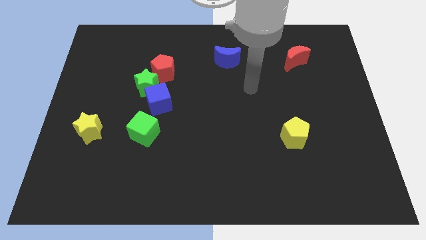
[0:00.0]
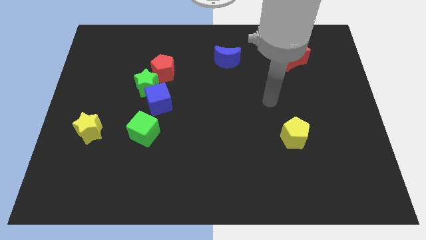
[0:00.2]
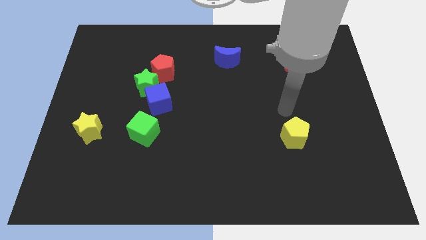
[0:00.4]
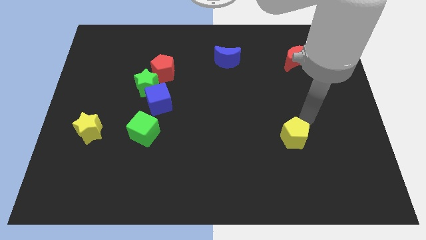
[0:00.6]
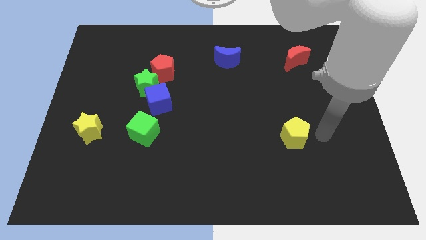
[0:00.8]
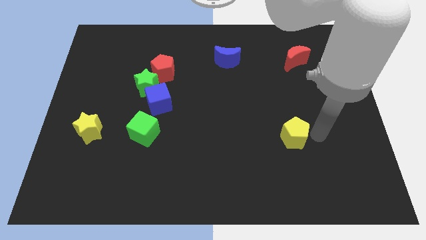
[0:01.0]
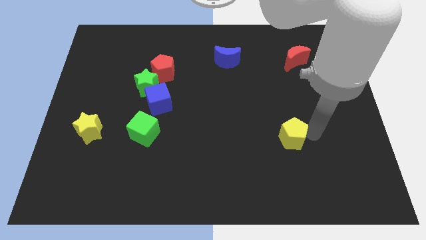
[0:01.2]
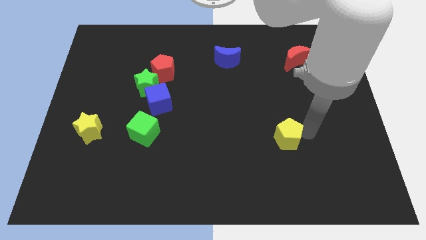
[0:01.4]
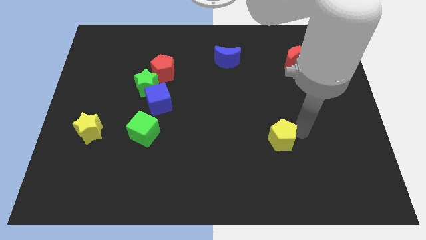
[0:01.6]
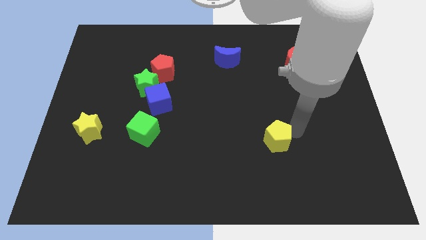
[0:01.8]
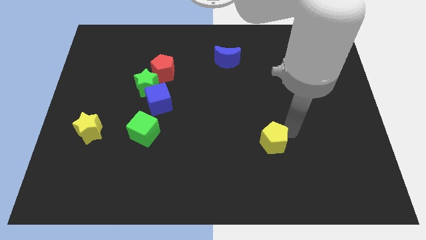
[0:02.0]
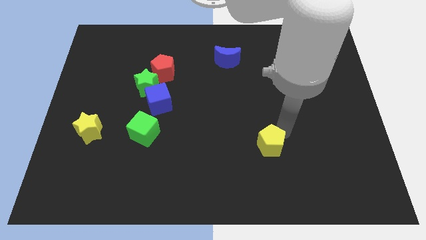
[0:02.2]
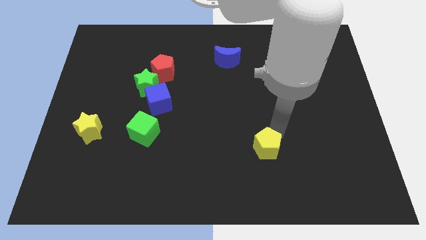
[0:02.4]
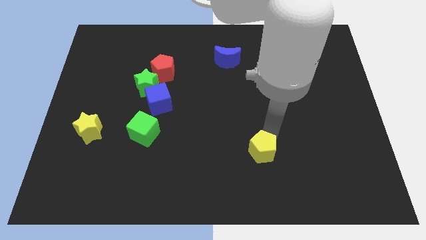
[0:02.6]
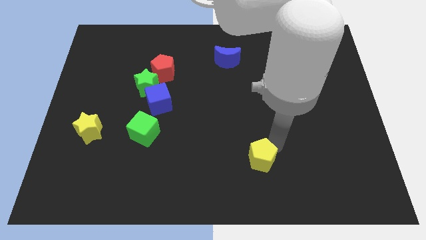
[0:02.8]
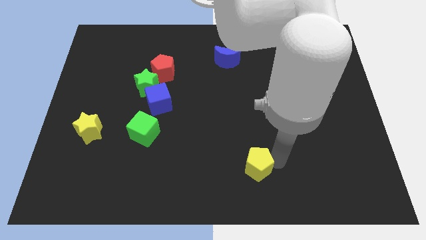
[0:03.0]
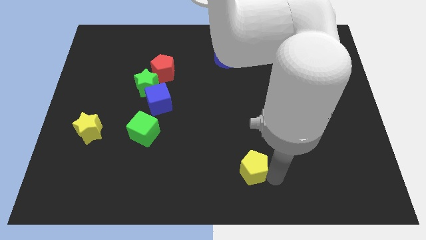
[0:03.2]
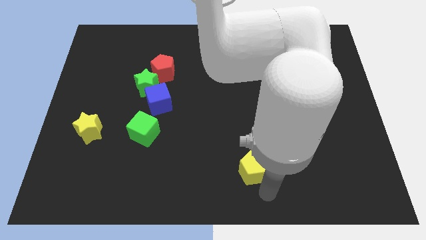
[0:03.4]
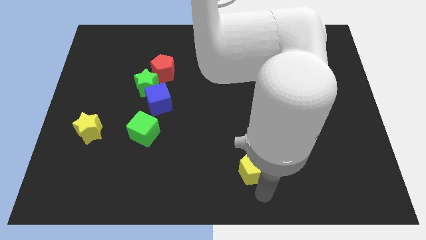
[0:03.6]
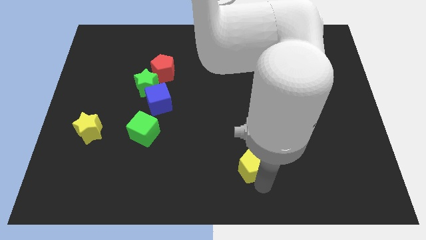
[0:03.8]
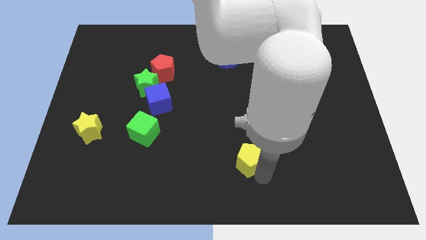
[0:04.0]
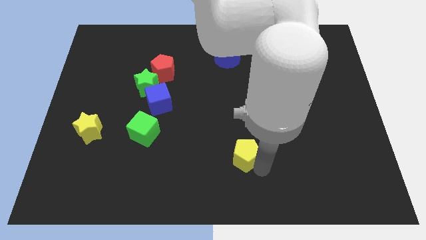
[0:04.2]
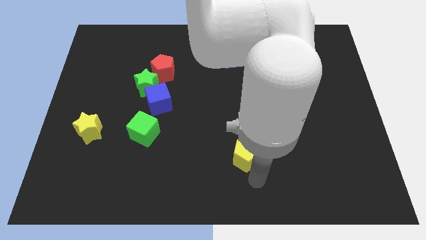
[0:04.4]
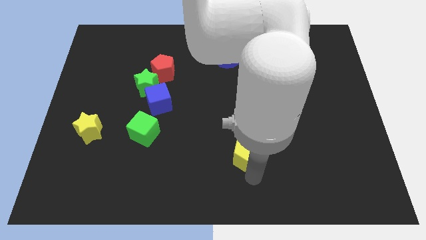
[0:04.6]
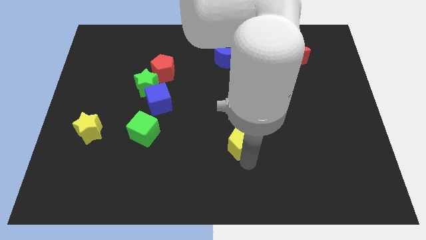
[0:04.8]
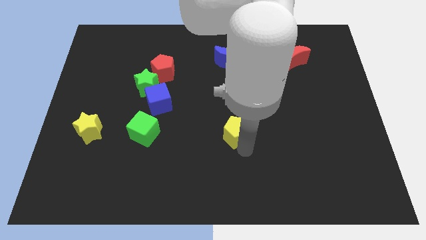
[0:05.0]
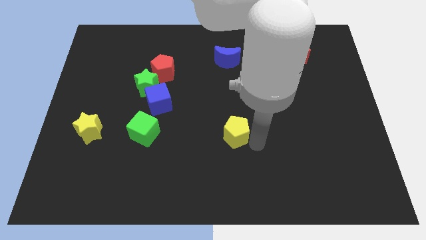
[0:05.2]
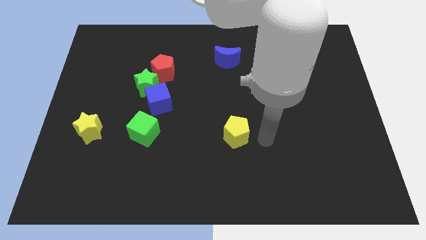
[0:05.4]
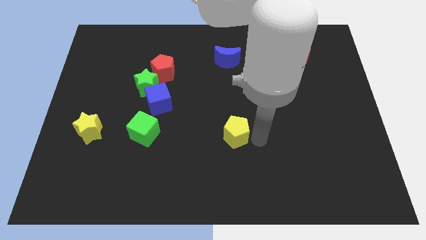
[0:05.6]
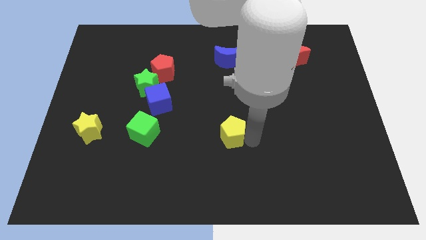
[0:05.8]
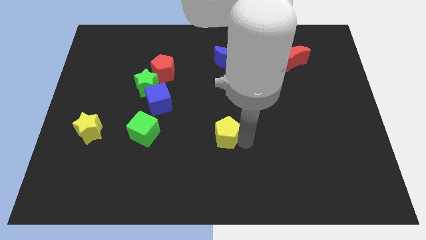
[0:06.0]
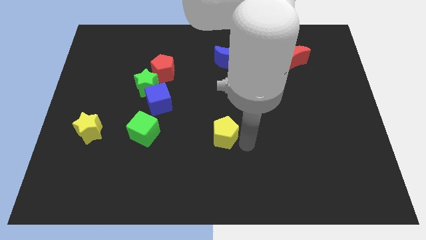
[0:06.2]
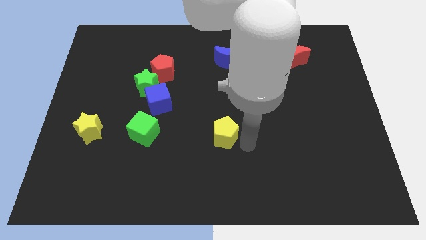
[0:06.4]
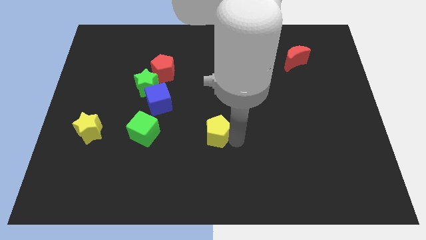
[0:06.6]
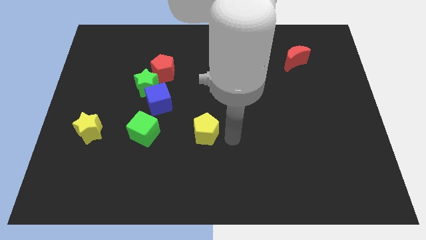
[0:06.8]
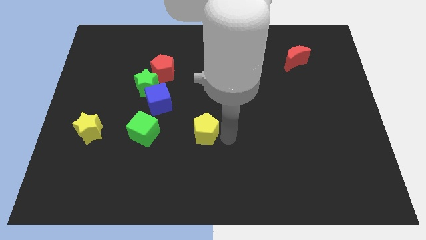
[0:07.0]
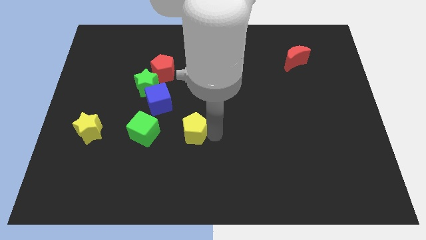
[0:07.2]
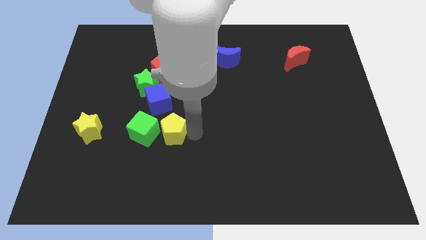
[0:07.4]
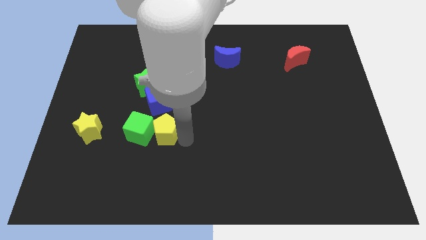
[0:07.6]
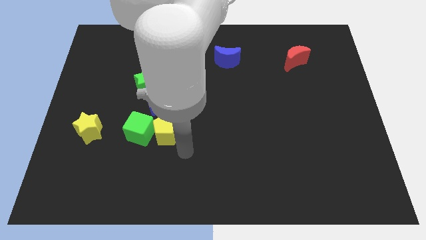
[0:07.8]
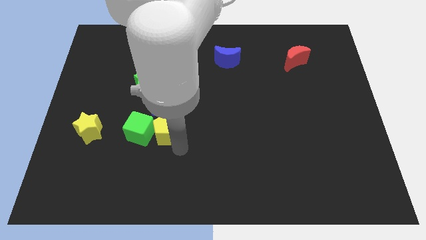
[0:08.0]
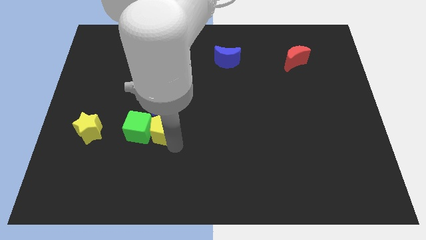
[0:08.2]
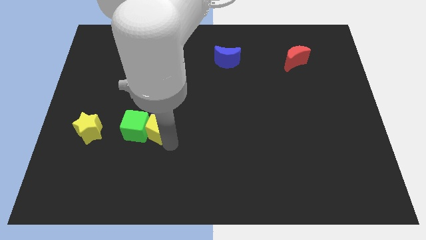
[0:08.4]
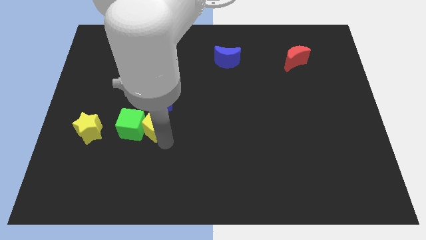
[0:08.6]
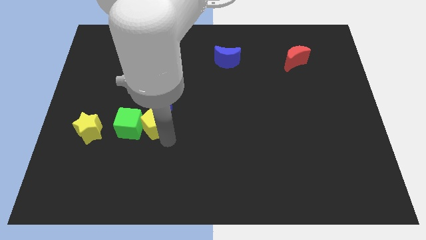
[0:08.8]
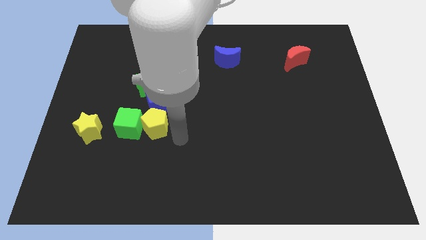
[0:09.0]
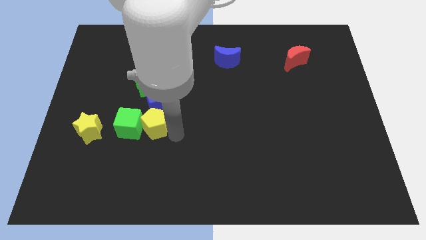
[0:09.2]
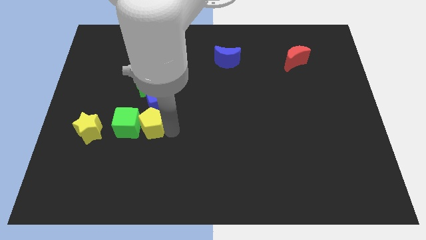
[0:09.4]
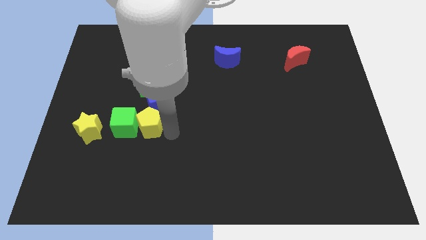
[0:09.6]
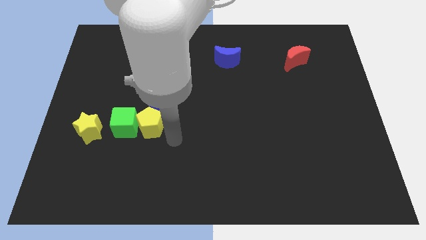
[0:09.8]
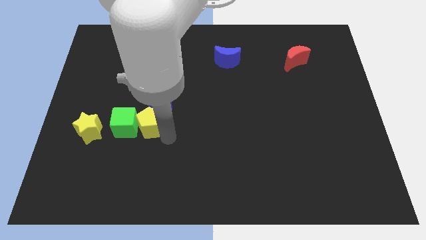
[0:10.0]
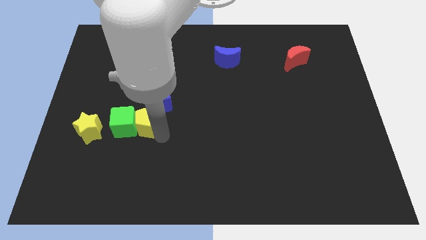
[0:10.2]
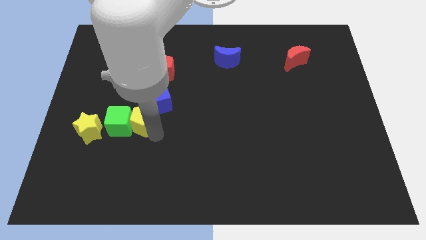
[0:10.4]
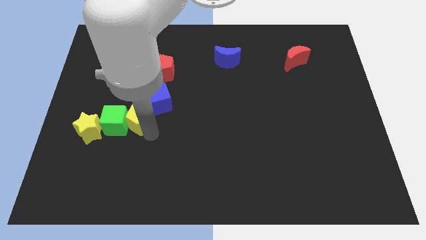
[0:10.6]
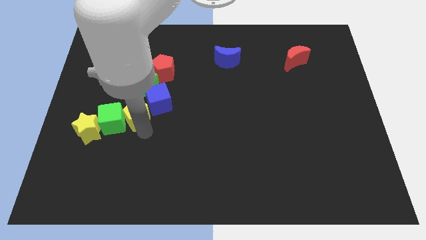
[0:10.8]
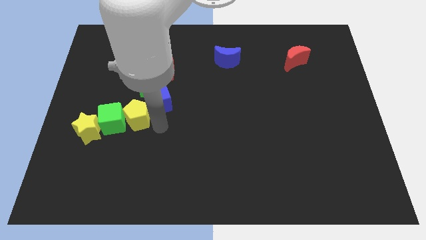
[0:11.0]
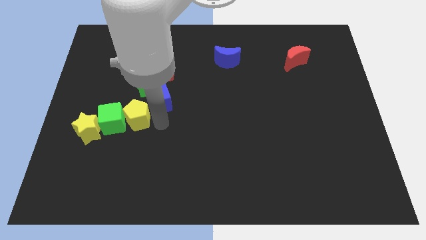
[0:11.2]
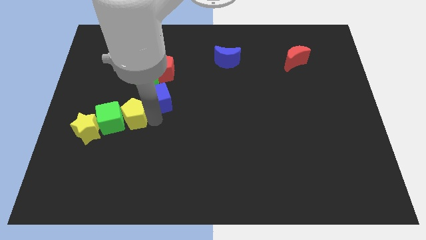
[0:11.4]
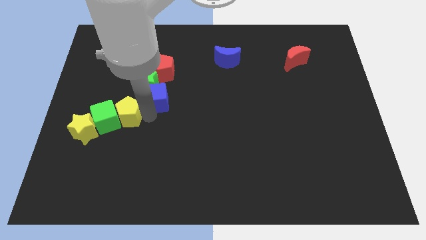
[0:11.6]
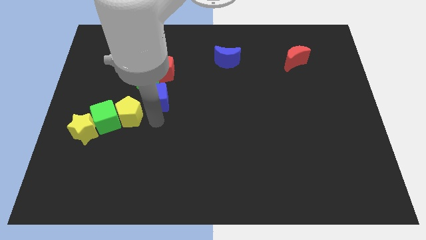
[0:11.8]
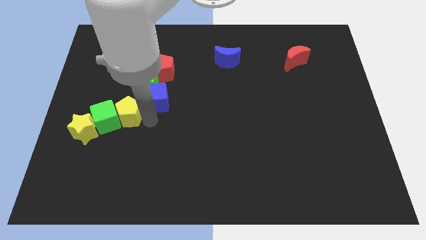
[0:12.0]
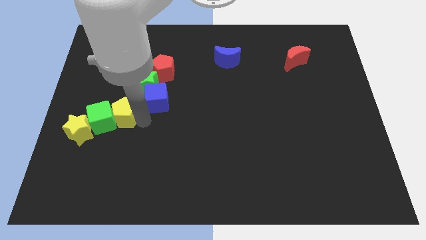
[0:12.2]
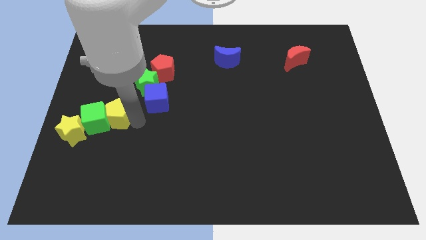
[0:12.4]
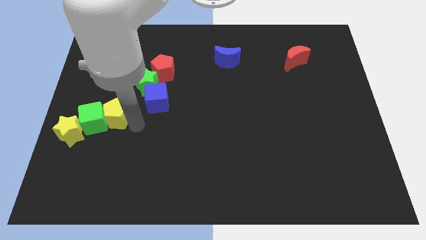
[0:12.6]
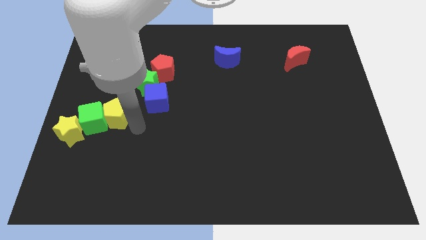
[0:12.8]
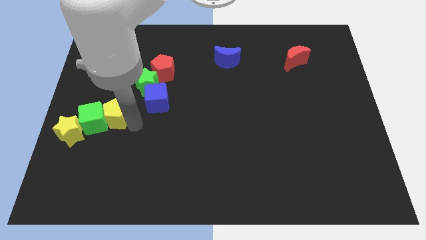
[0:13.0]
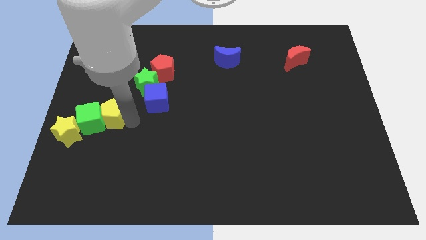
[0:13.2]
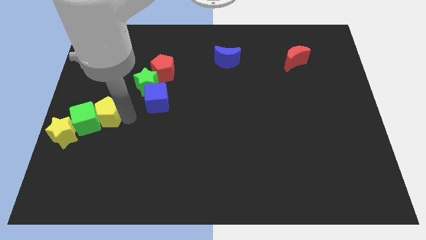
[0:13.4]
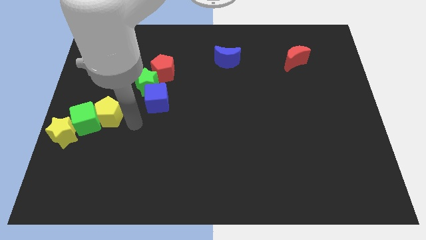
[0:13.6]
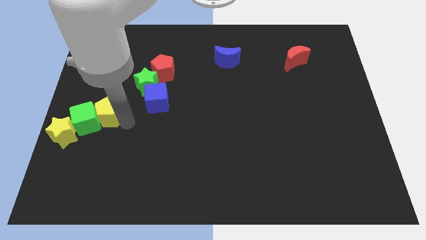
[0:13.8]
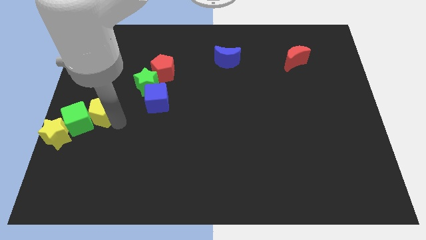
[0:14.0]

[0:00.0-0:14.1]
move the yellow pentagon to the left side of the board
